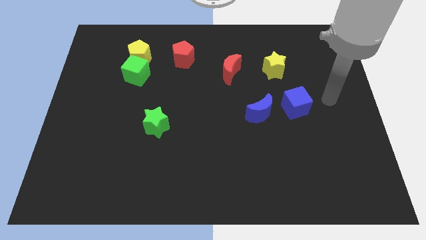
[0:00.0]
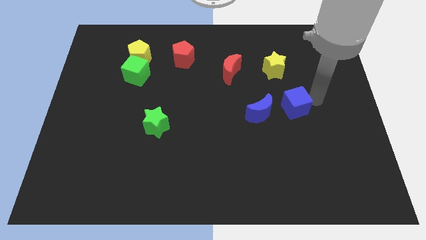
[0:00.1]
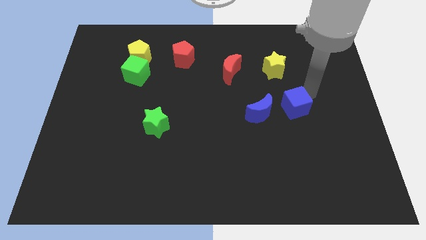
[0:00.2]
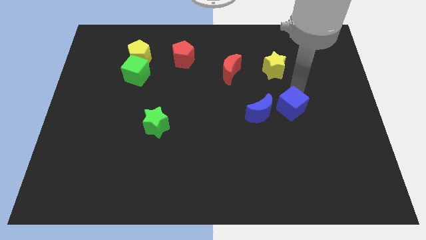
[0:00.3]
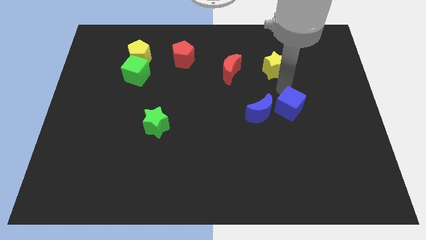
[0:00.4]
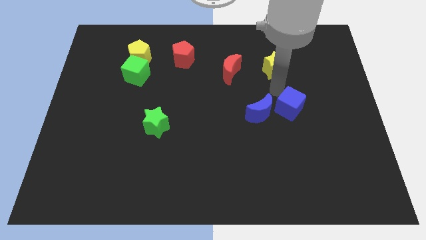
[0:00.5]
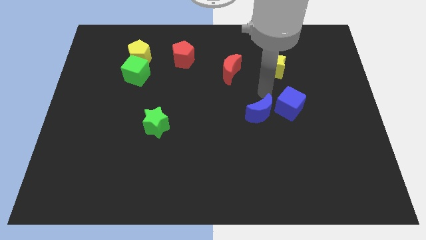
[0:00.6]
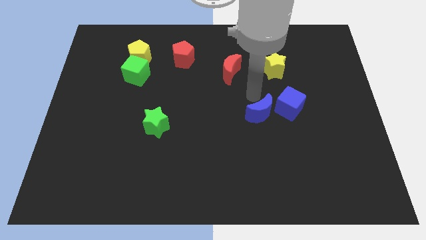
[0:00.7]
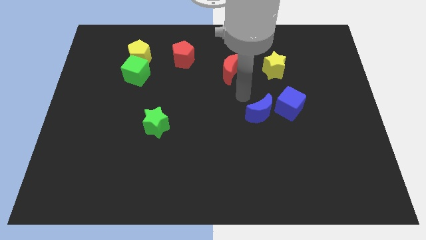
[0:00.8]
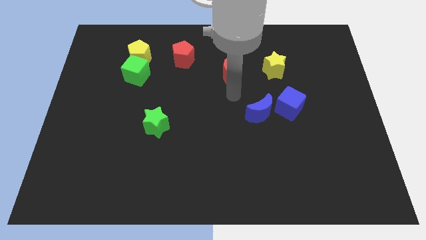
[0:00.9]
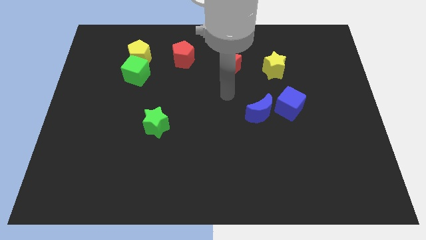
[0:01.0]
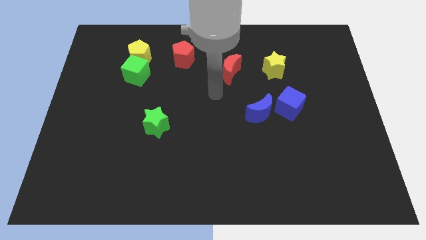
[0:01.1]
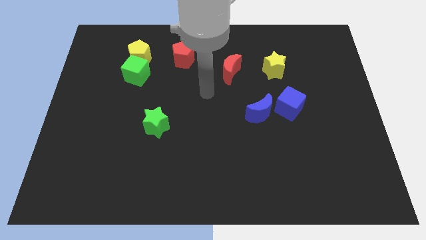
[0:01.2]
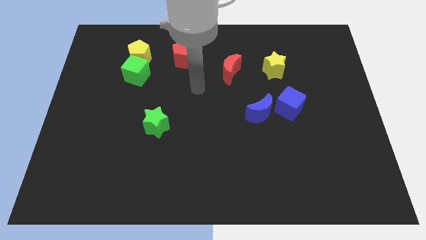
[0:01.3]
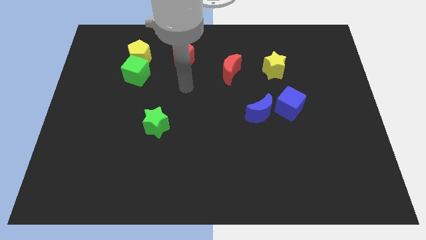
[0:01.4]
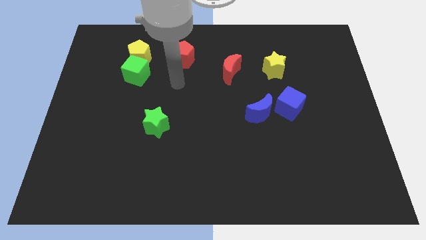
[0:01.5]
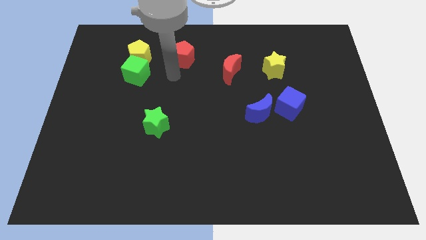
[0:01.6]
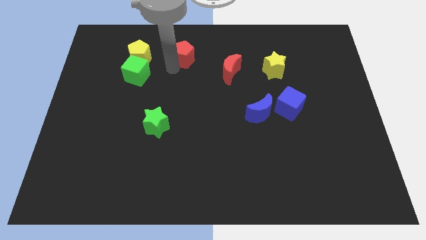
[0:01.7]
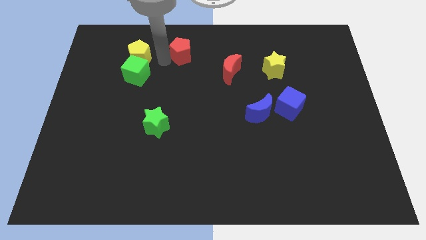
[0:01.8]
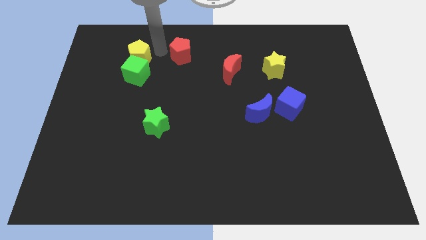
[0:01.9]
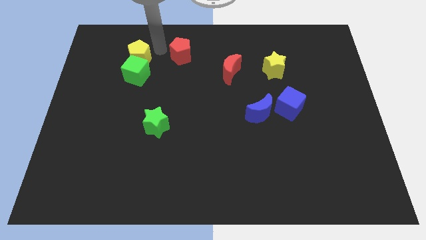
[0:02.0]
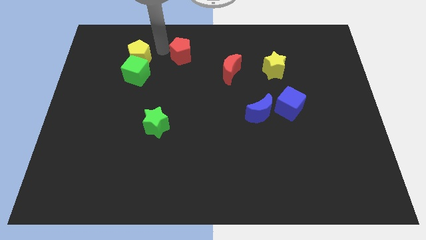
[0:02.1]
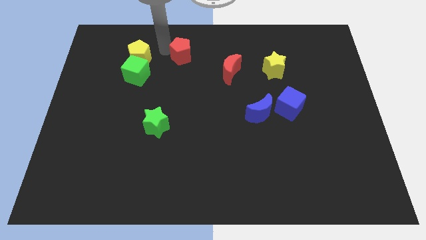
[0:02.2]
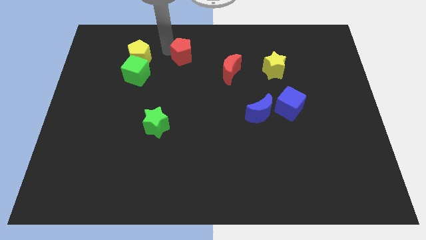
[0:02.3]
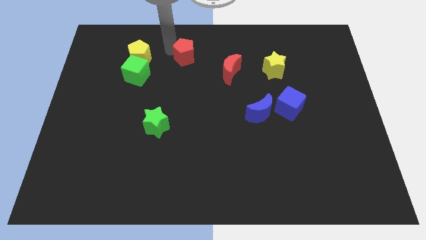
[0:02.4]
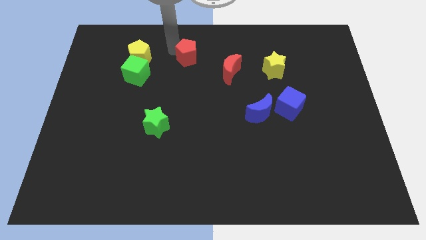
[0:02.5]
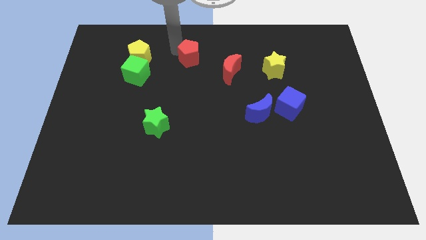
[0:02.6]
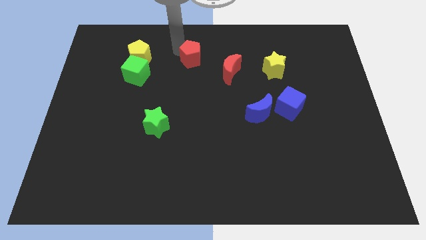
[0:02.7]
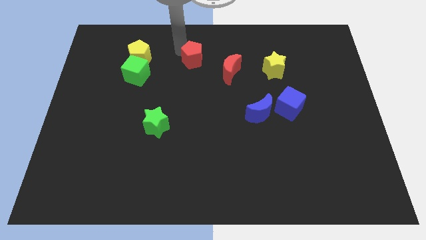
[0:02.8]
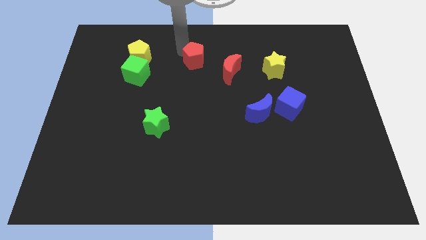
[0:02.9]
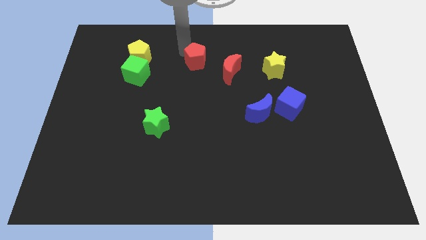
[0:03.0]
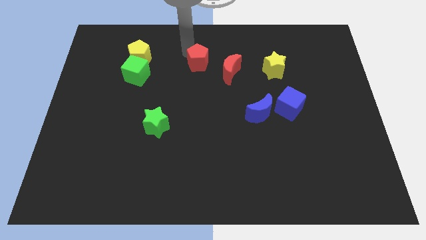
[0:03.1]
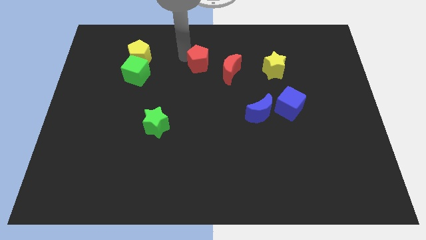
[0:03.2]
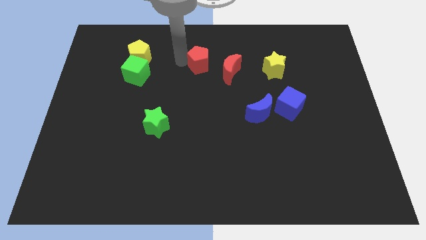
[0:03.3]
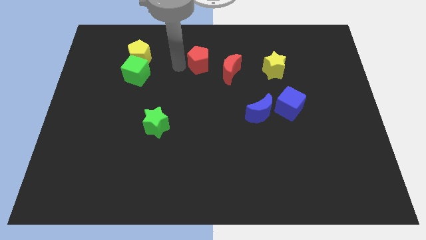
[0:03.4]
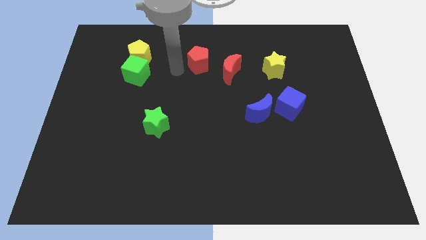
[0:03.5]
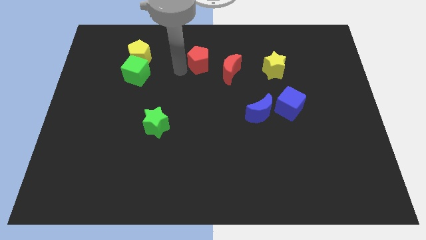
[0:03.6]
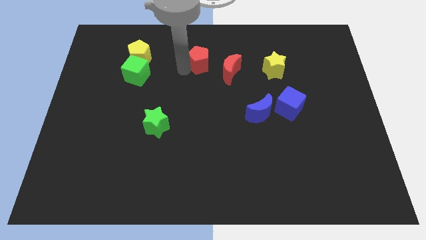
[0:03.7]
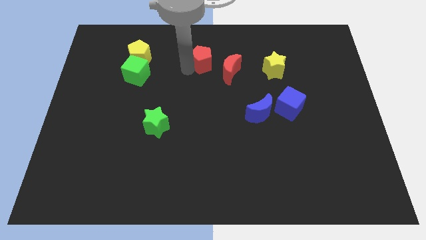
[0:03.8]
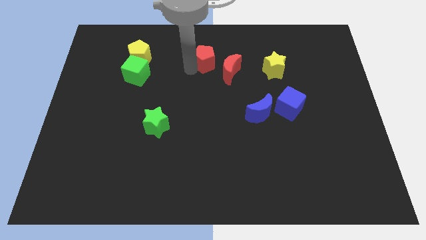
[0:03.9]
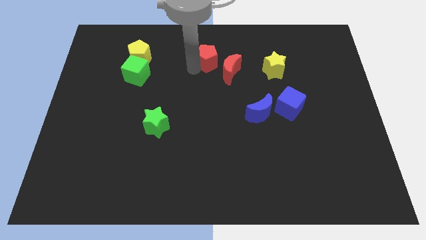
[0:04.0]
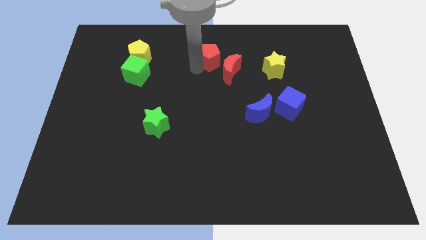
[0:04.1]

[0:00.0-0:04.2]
move the red pentagon to the right a bit

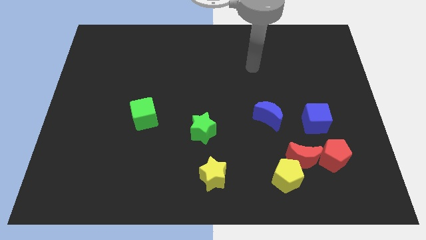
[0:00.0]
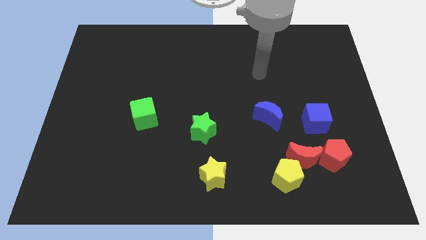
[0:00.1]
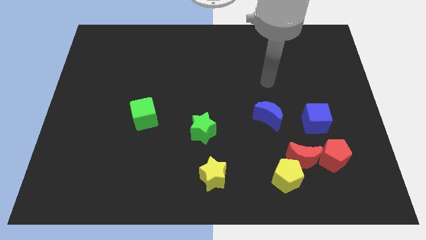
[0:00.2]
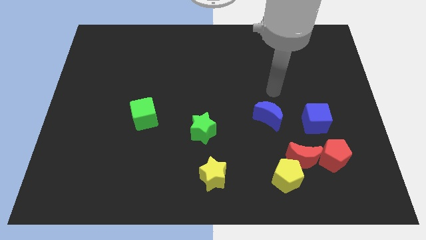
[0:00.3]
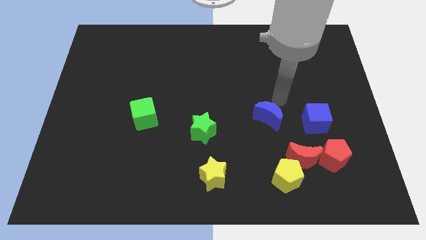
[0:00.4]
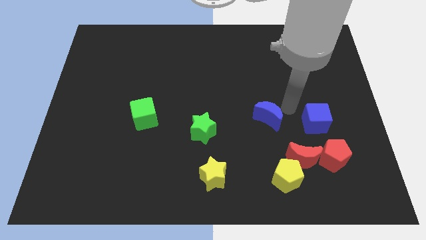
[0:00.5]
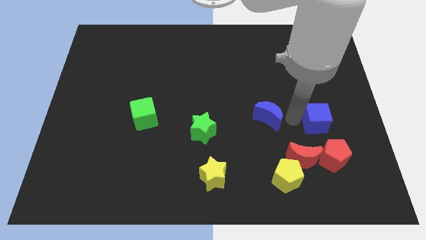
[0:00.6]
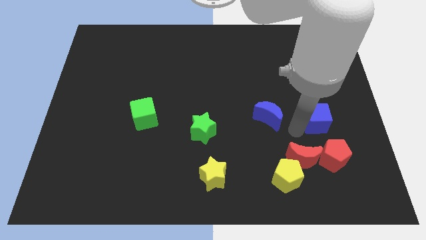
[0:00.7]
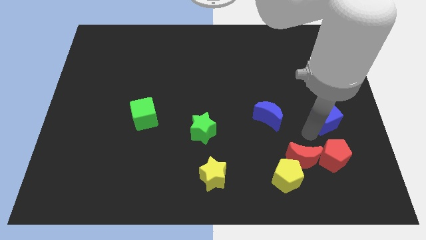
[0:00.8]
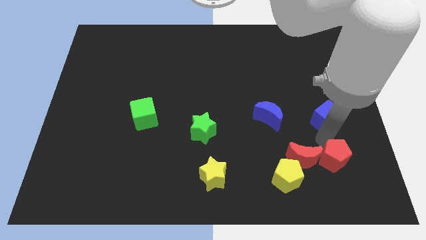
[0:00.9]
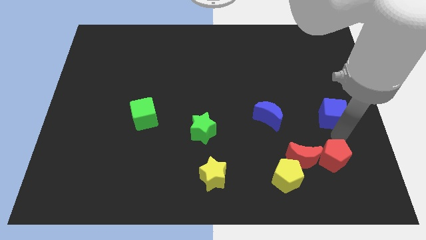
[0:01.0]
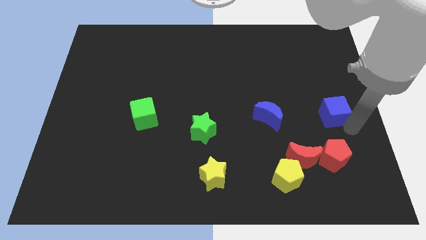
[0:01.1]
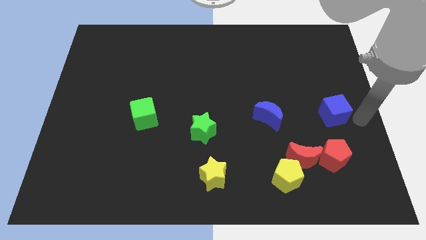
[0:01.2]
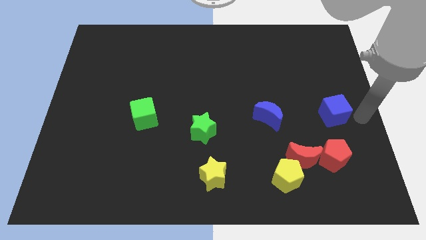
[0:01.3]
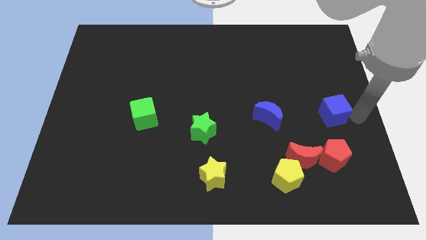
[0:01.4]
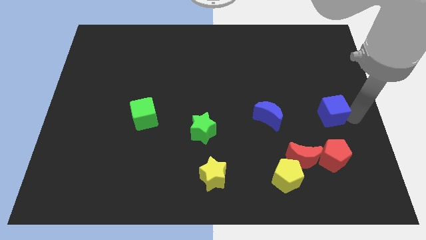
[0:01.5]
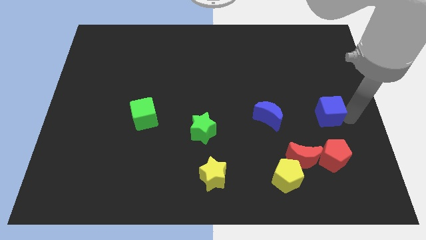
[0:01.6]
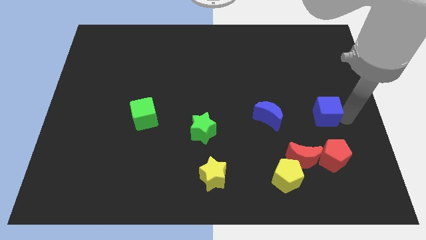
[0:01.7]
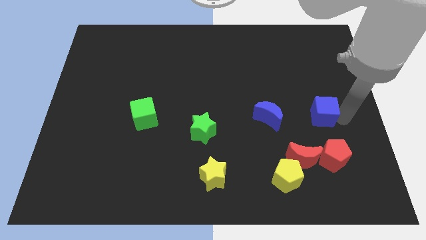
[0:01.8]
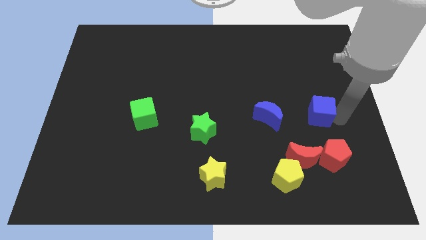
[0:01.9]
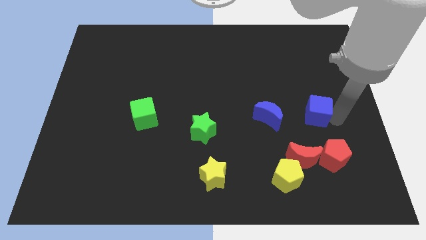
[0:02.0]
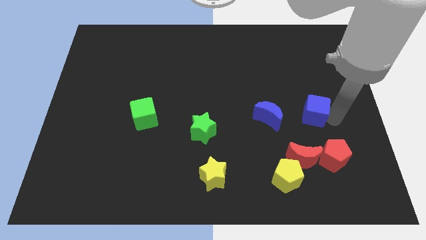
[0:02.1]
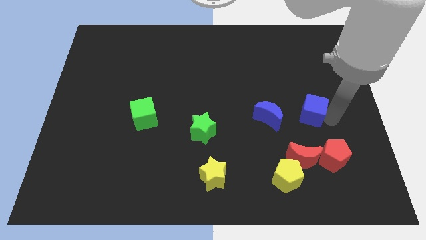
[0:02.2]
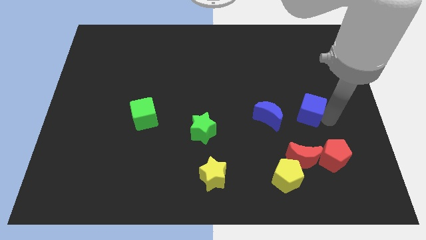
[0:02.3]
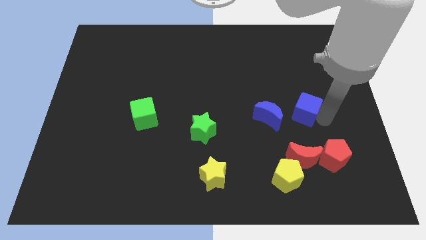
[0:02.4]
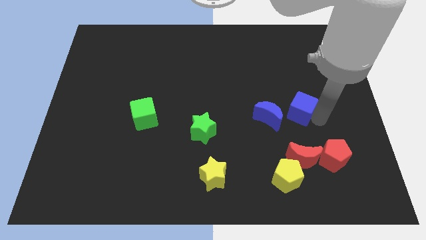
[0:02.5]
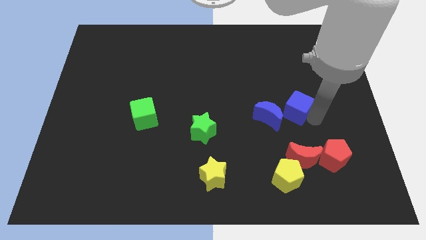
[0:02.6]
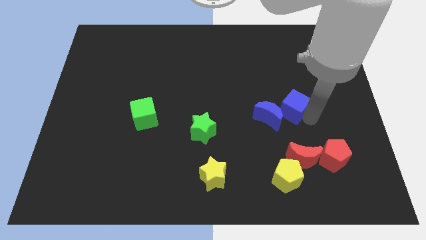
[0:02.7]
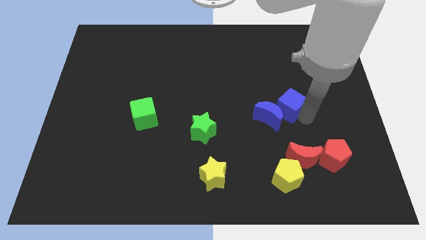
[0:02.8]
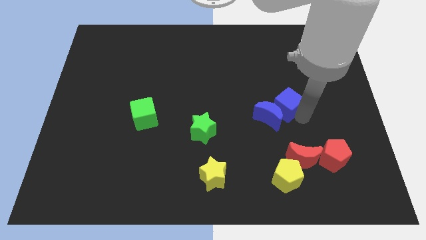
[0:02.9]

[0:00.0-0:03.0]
slightly move the blue cube upwards and left

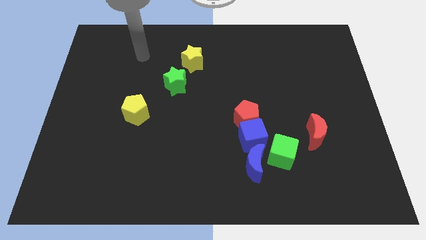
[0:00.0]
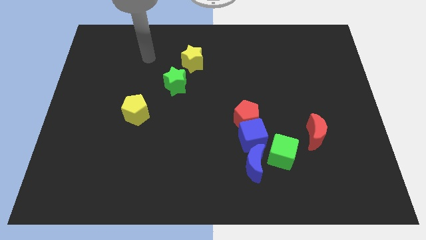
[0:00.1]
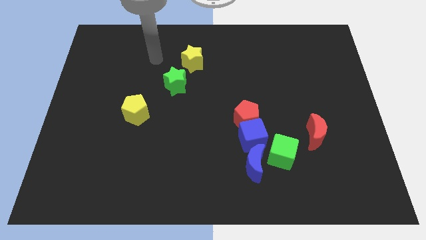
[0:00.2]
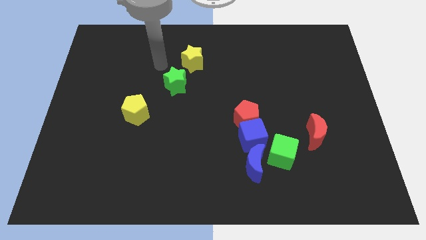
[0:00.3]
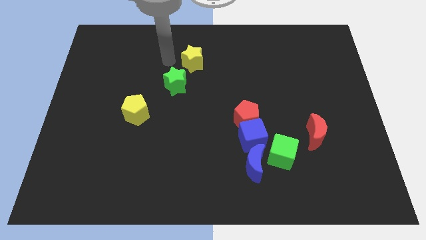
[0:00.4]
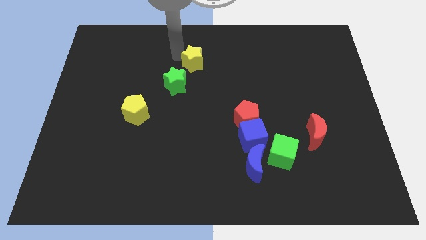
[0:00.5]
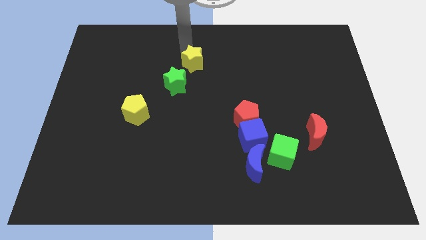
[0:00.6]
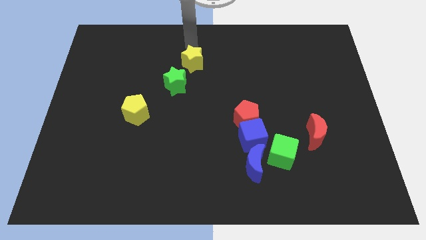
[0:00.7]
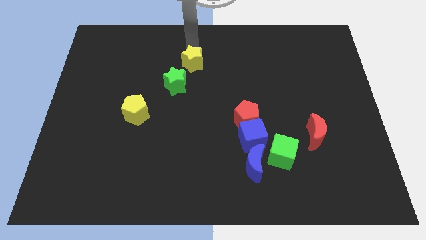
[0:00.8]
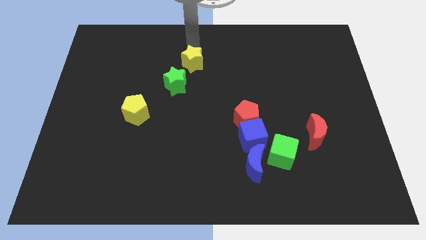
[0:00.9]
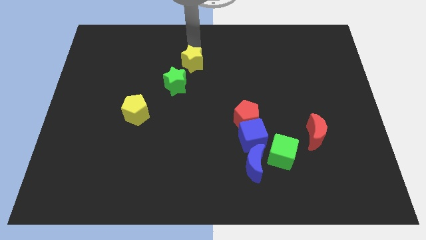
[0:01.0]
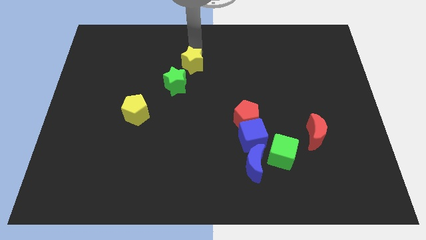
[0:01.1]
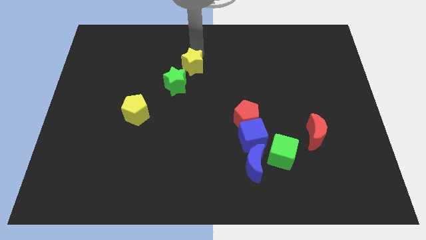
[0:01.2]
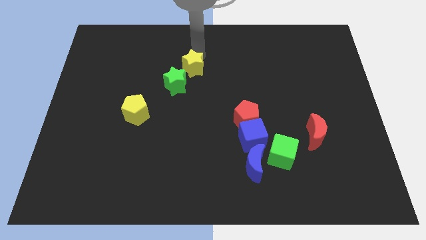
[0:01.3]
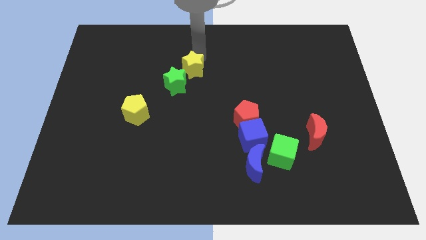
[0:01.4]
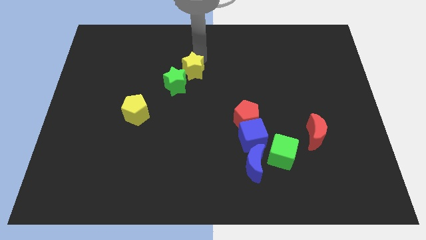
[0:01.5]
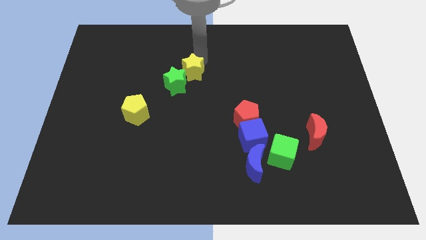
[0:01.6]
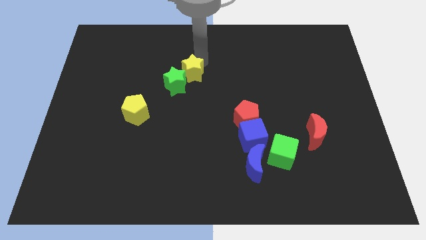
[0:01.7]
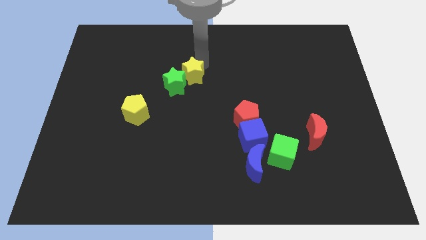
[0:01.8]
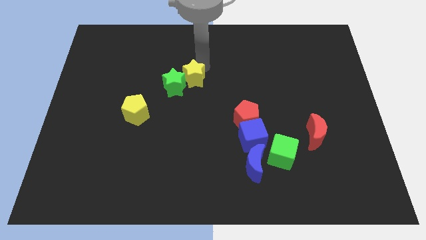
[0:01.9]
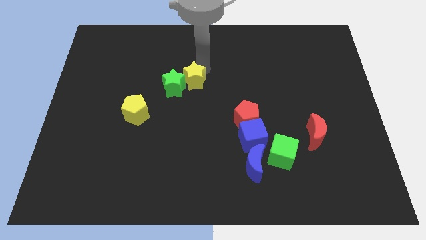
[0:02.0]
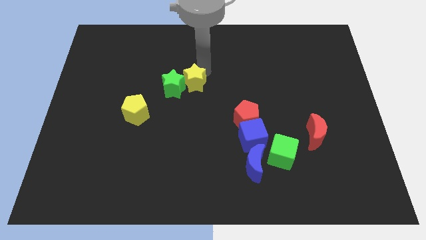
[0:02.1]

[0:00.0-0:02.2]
move the yellow star downwards slightly
